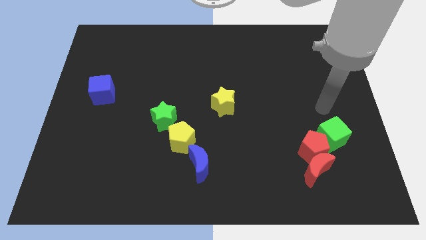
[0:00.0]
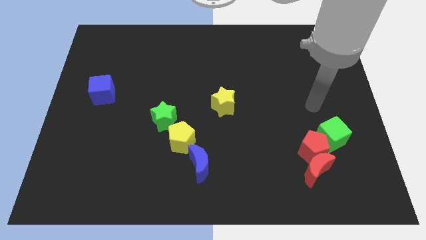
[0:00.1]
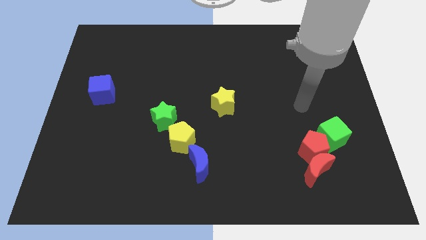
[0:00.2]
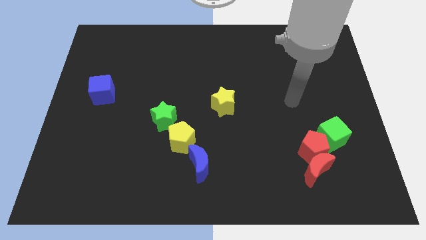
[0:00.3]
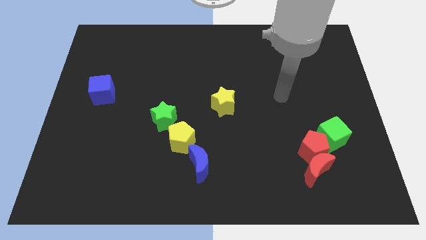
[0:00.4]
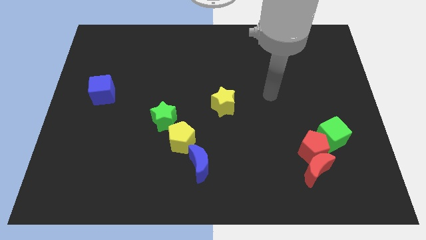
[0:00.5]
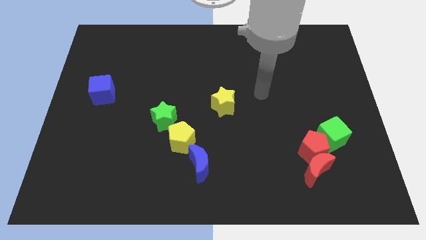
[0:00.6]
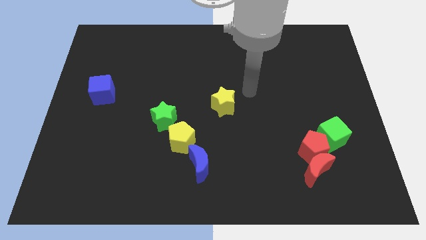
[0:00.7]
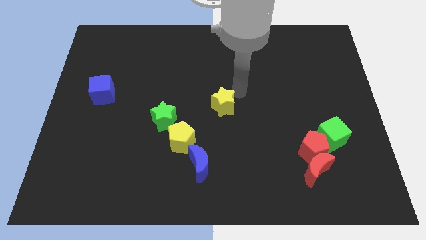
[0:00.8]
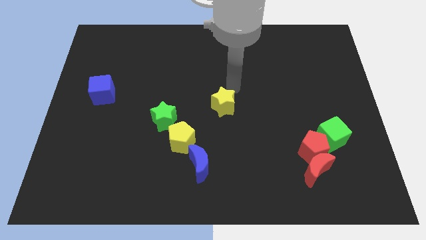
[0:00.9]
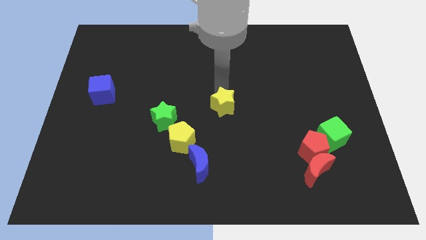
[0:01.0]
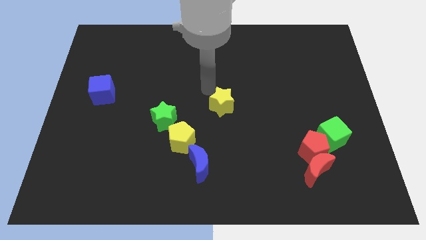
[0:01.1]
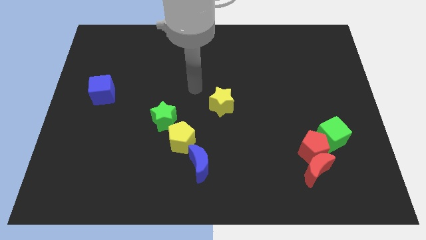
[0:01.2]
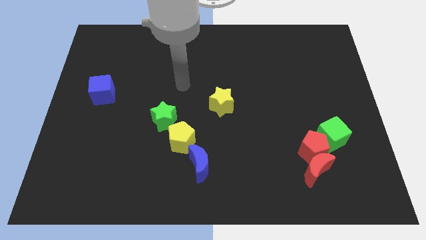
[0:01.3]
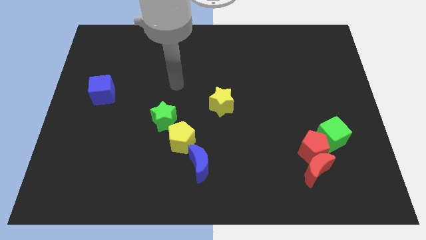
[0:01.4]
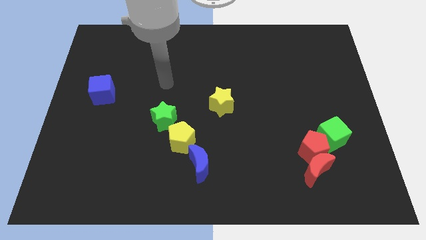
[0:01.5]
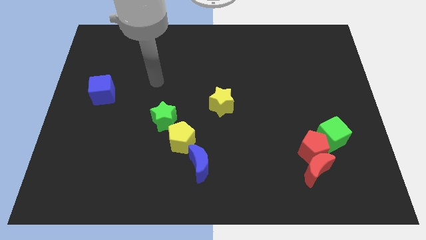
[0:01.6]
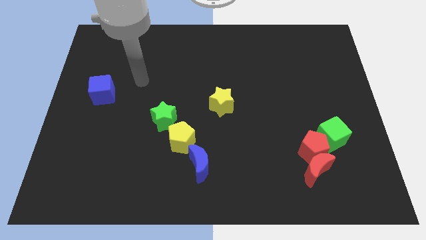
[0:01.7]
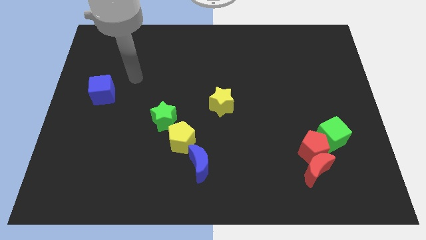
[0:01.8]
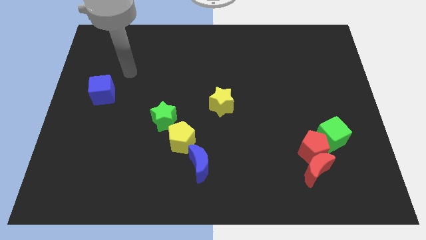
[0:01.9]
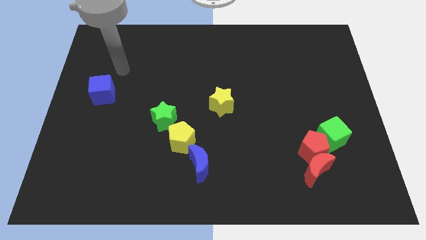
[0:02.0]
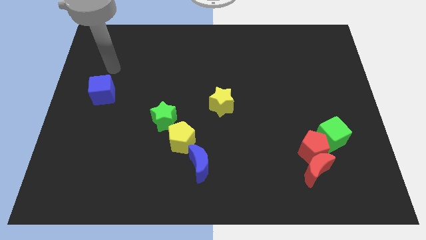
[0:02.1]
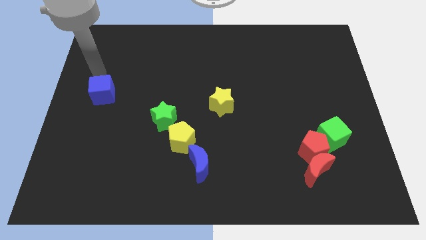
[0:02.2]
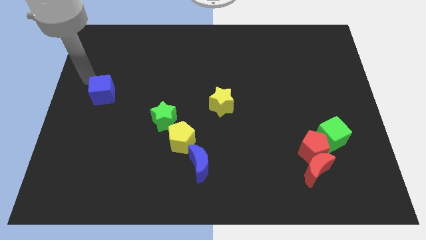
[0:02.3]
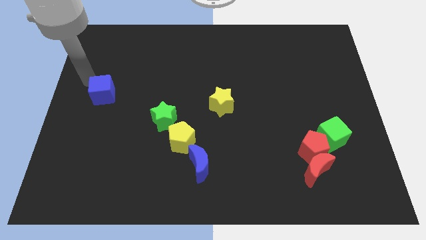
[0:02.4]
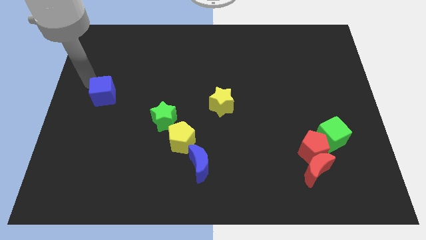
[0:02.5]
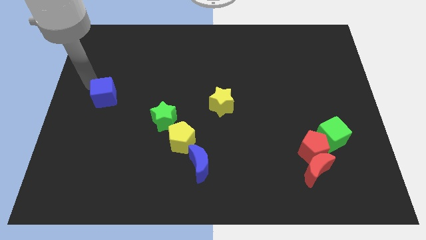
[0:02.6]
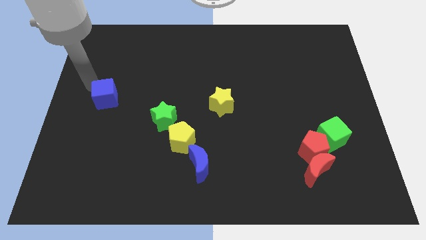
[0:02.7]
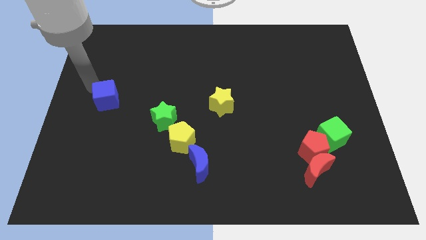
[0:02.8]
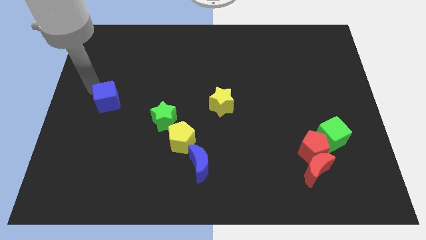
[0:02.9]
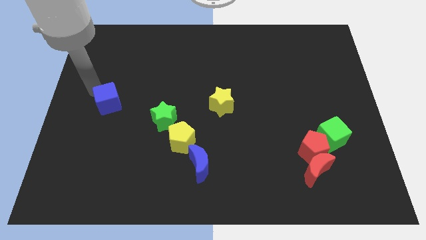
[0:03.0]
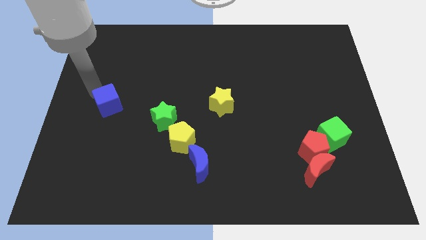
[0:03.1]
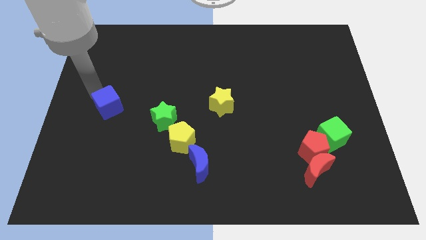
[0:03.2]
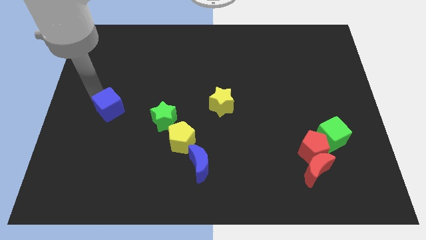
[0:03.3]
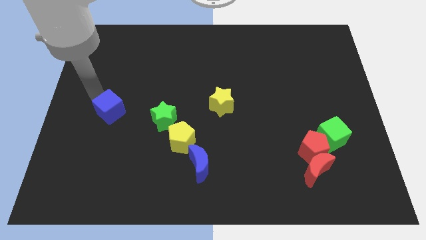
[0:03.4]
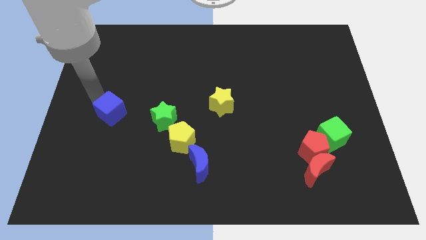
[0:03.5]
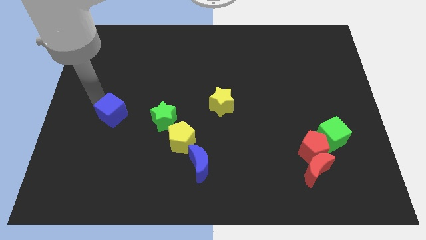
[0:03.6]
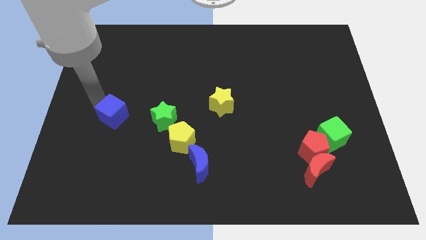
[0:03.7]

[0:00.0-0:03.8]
move the blue cube somewhat downwards and right

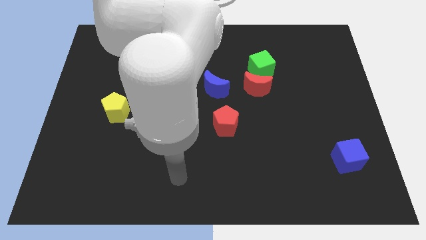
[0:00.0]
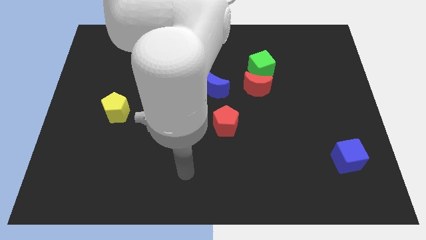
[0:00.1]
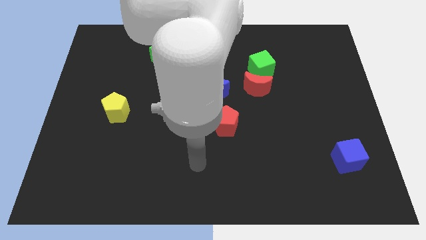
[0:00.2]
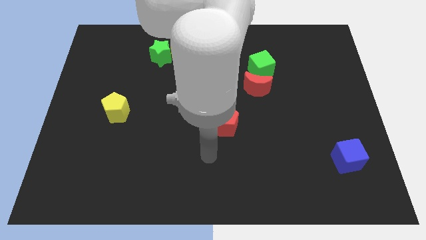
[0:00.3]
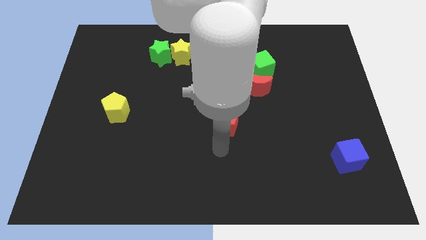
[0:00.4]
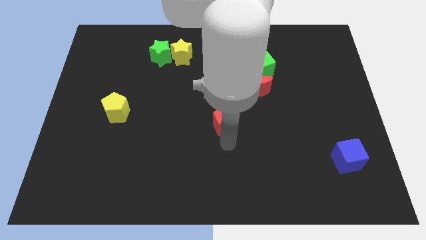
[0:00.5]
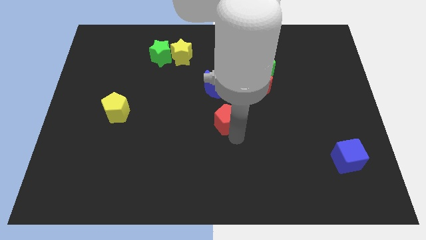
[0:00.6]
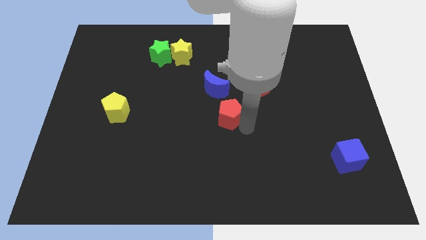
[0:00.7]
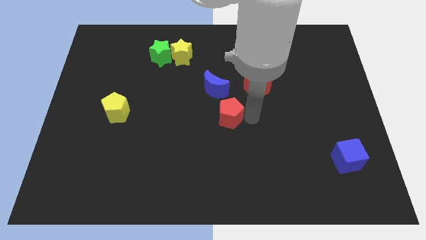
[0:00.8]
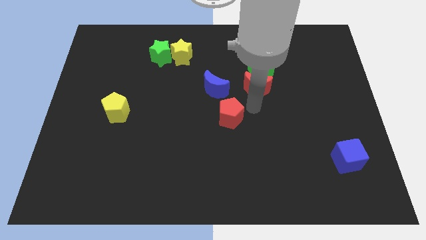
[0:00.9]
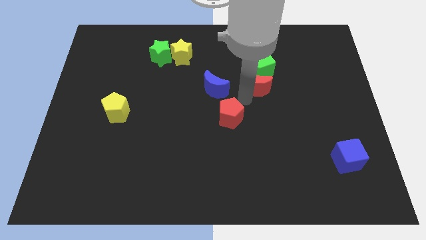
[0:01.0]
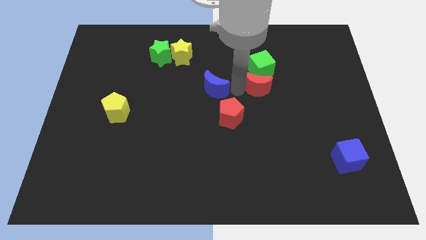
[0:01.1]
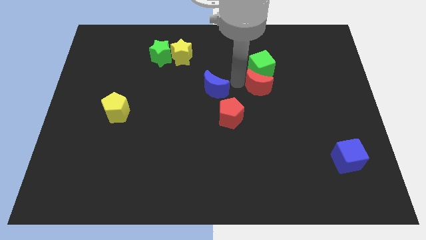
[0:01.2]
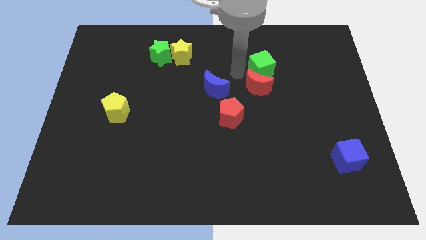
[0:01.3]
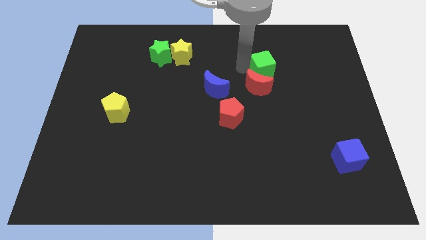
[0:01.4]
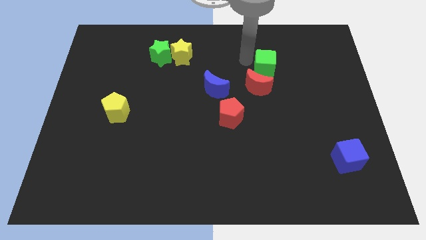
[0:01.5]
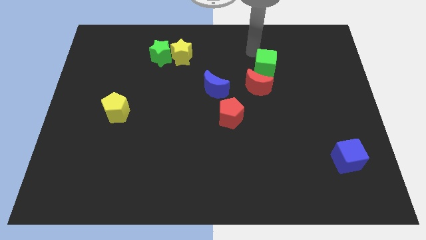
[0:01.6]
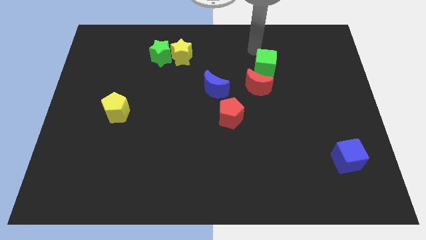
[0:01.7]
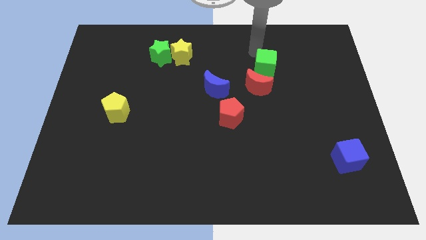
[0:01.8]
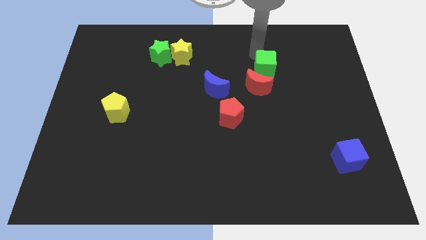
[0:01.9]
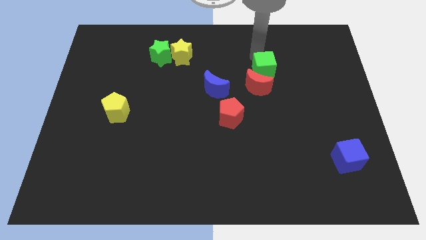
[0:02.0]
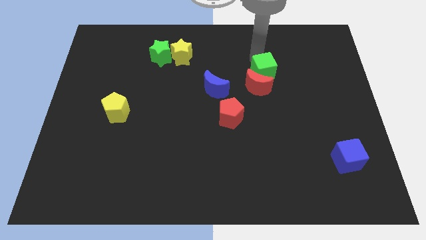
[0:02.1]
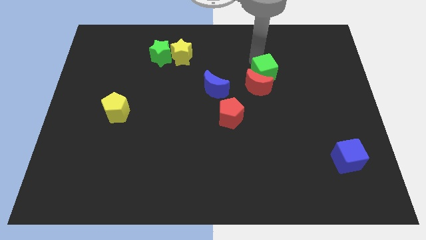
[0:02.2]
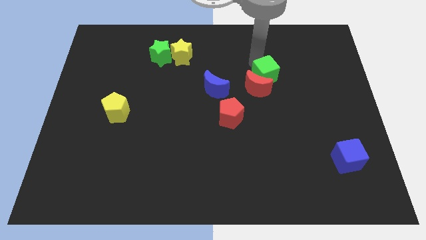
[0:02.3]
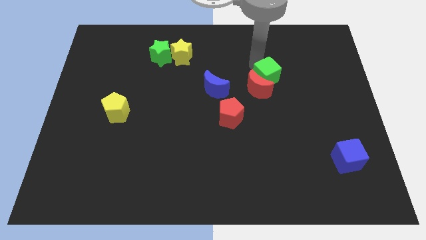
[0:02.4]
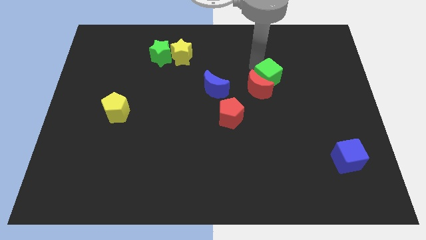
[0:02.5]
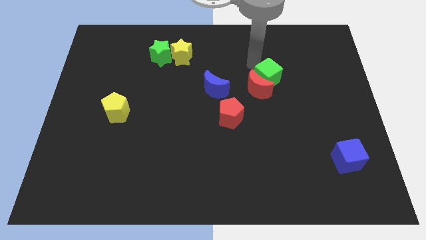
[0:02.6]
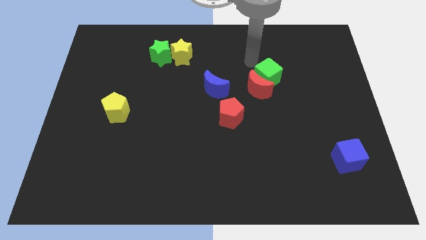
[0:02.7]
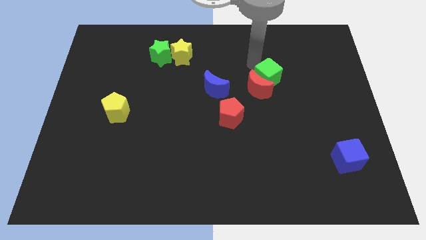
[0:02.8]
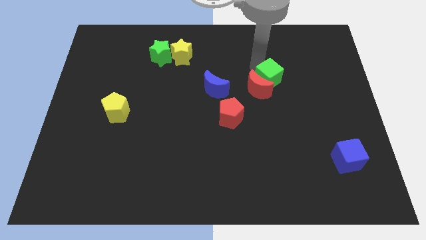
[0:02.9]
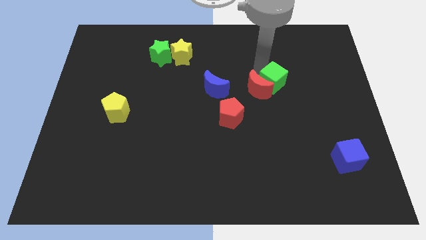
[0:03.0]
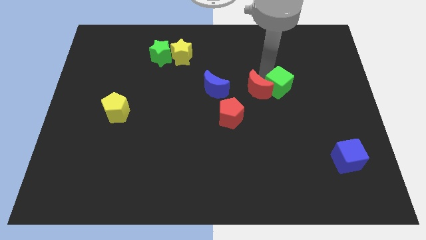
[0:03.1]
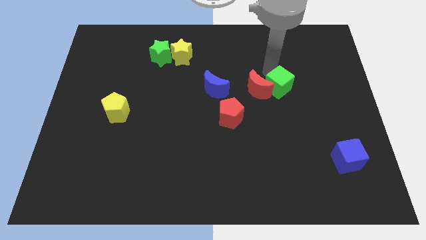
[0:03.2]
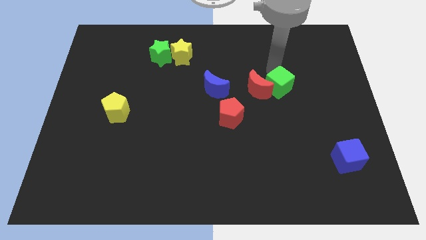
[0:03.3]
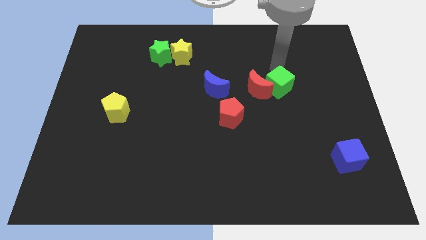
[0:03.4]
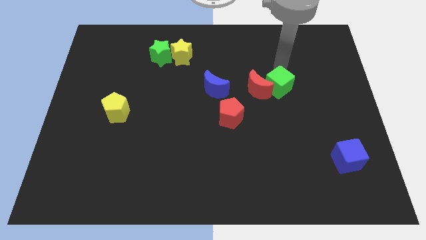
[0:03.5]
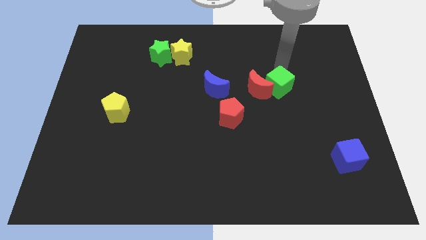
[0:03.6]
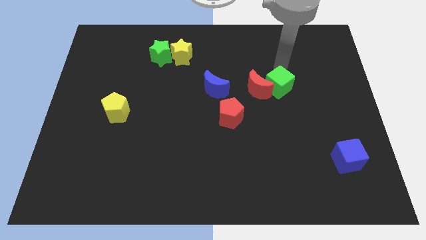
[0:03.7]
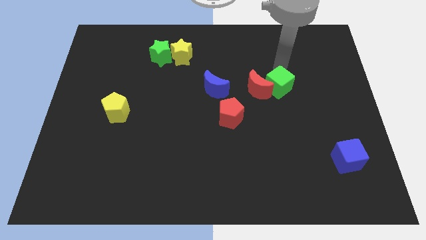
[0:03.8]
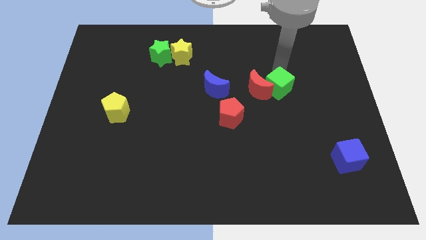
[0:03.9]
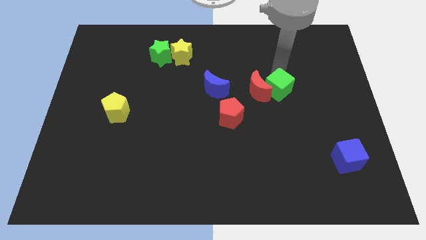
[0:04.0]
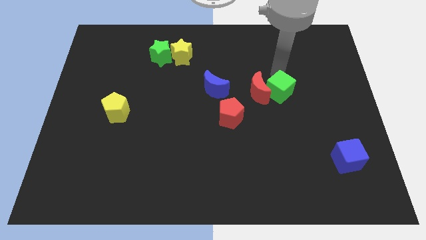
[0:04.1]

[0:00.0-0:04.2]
move the green cube a little downwards

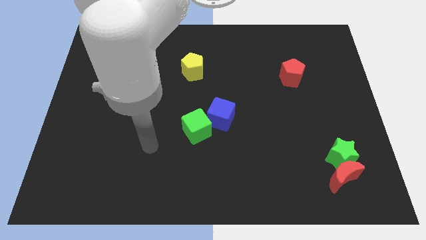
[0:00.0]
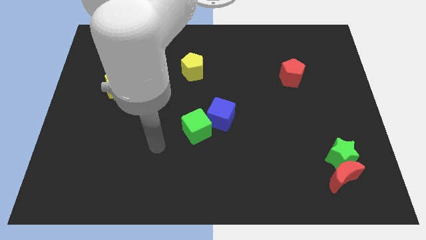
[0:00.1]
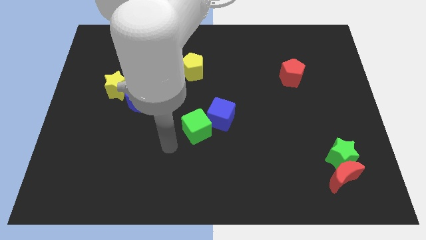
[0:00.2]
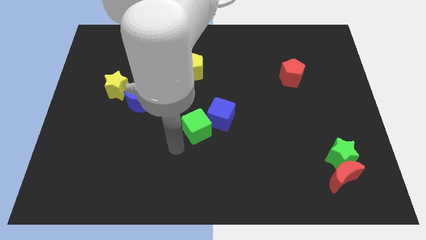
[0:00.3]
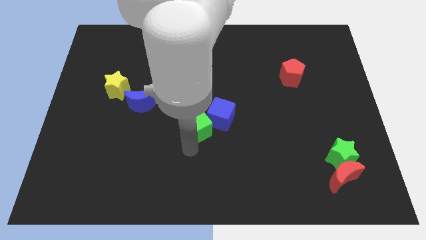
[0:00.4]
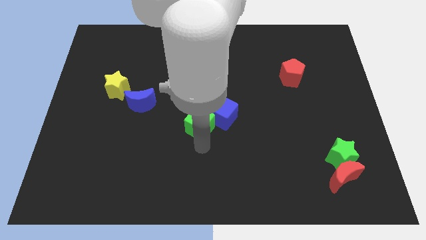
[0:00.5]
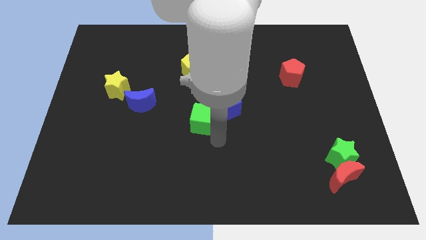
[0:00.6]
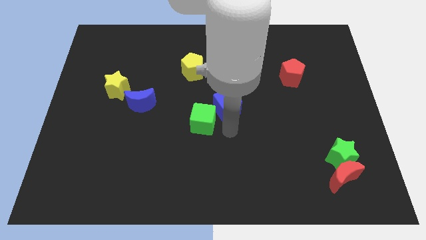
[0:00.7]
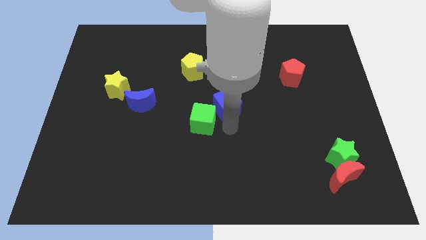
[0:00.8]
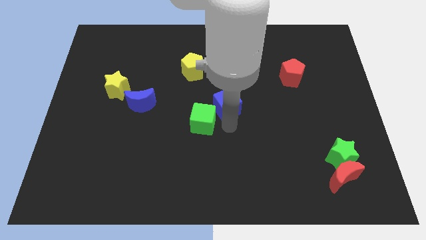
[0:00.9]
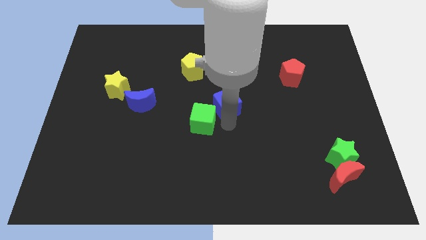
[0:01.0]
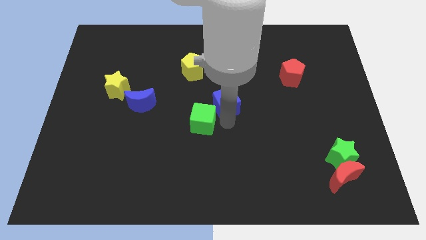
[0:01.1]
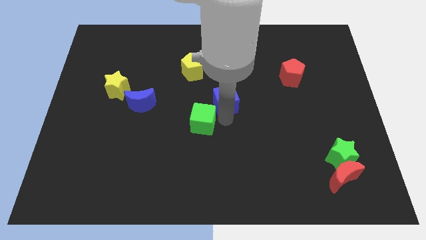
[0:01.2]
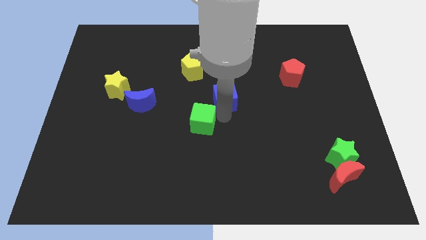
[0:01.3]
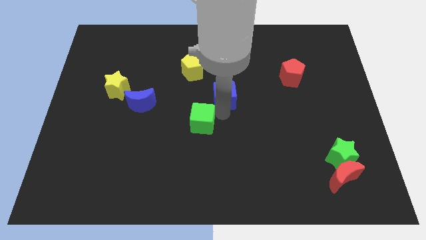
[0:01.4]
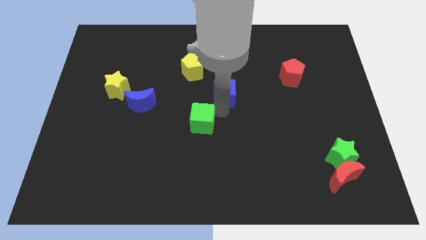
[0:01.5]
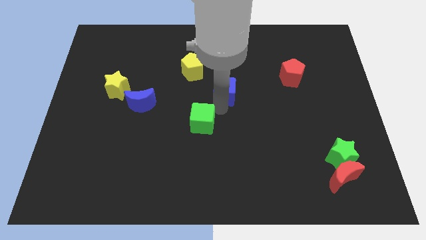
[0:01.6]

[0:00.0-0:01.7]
push the blue cube a little up
